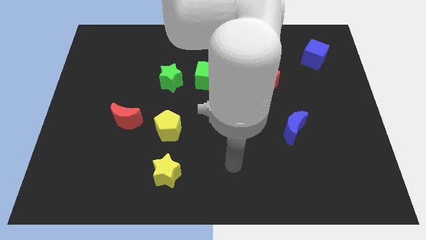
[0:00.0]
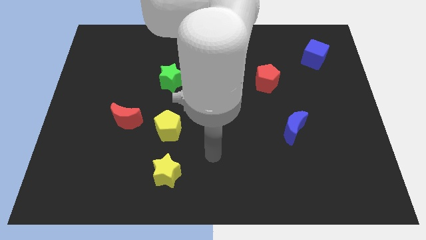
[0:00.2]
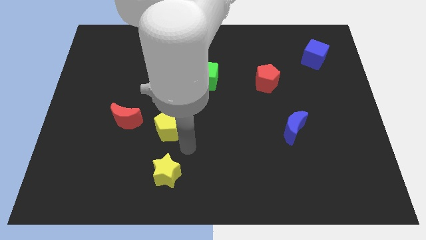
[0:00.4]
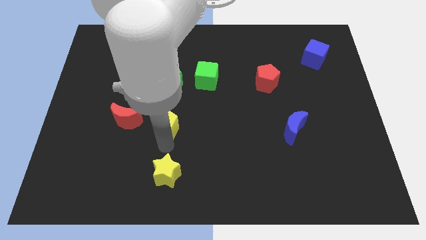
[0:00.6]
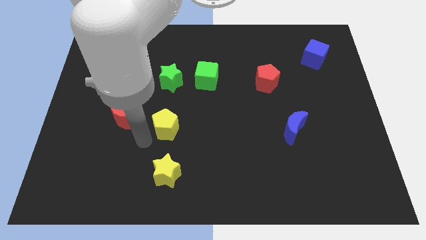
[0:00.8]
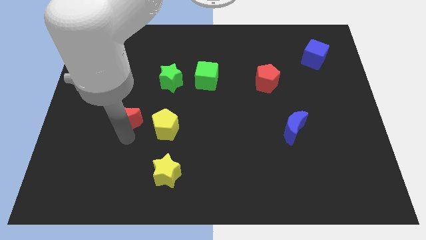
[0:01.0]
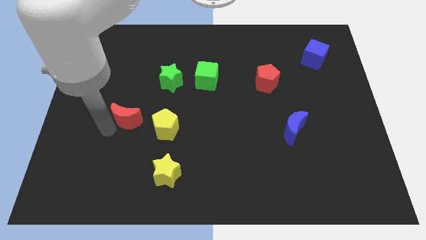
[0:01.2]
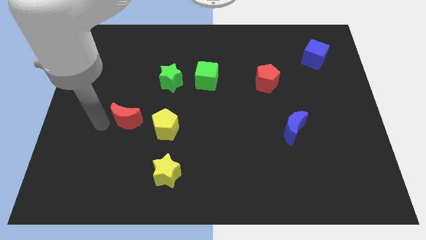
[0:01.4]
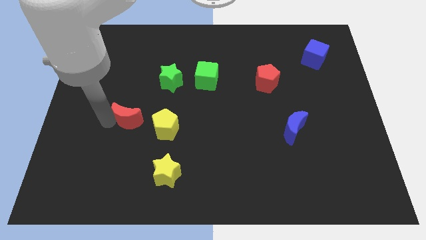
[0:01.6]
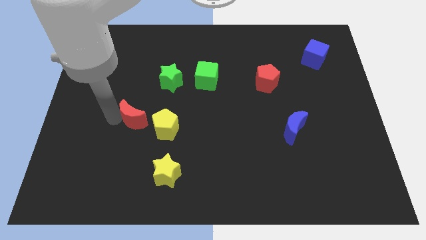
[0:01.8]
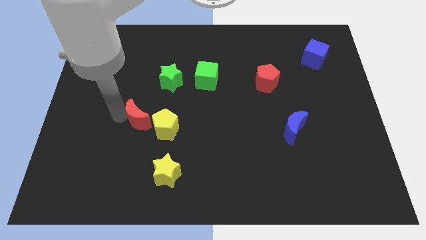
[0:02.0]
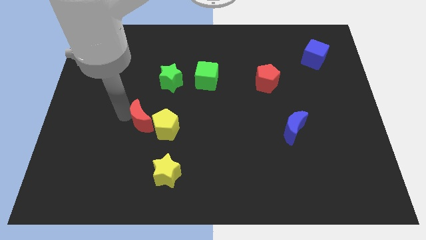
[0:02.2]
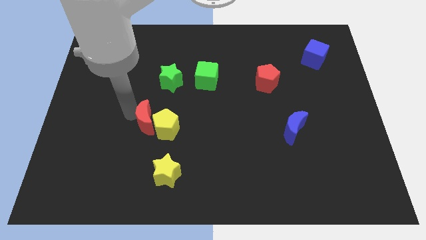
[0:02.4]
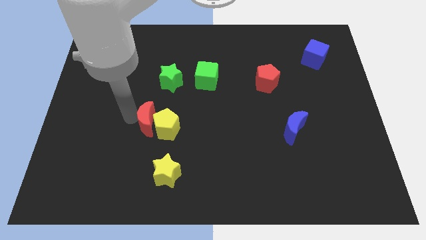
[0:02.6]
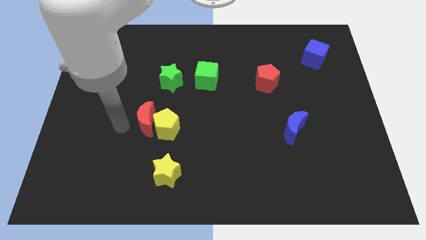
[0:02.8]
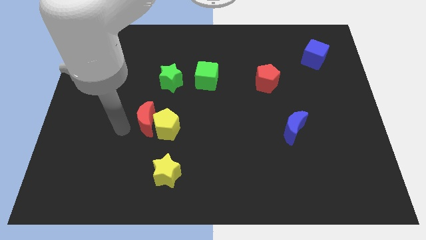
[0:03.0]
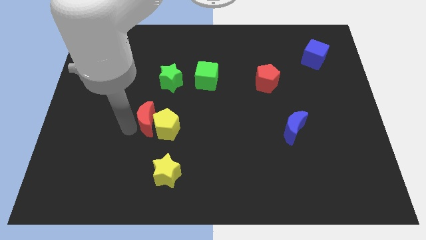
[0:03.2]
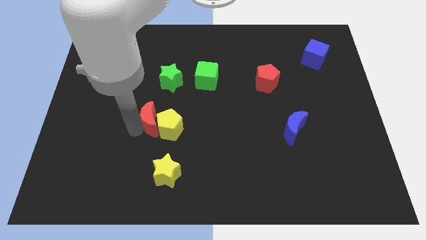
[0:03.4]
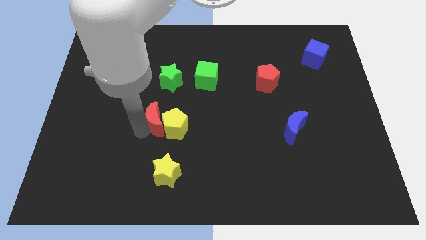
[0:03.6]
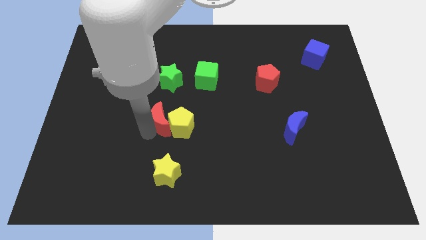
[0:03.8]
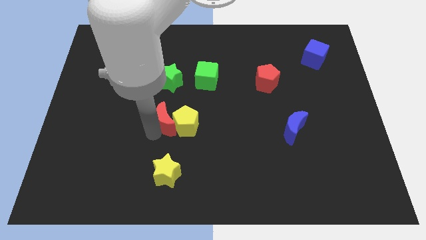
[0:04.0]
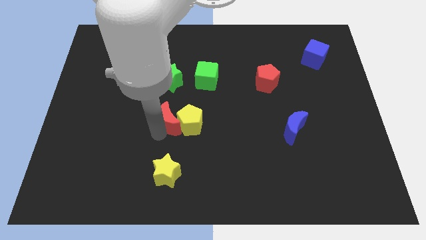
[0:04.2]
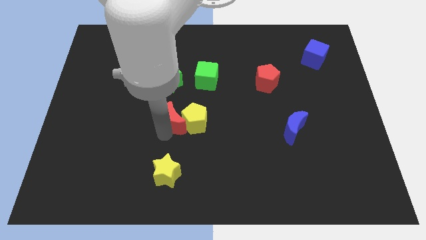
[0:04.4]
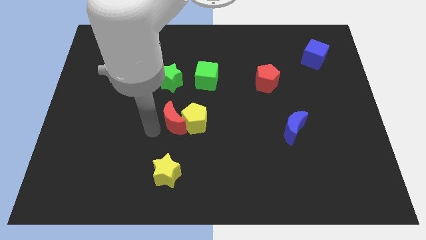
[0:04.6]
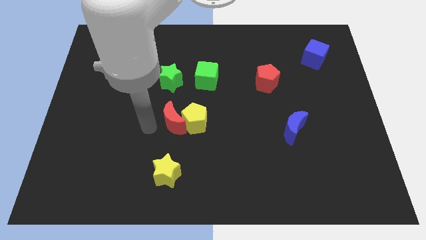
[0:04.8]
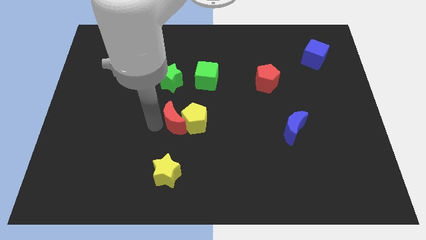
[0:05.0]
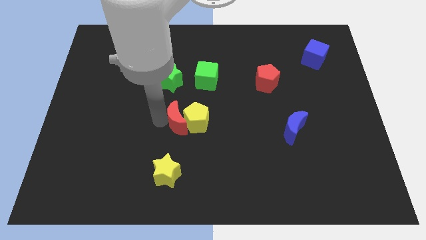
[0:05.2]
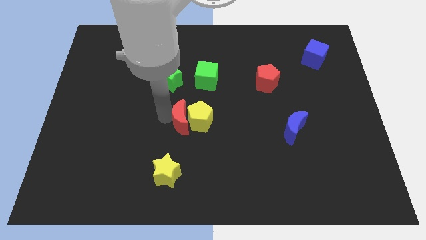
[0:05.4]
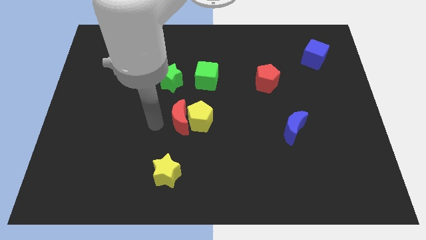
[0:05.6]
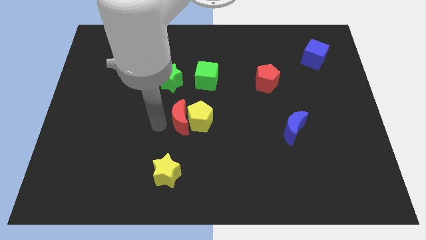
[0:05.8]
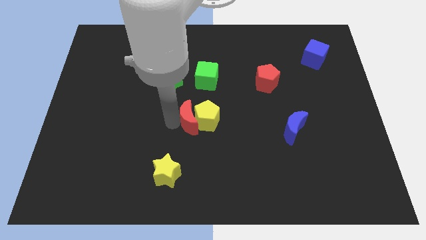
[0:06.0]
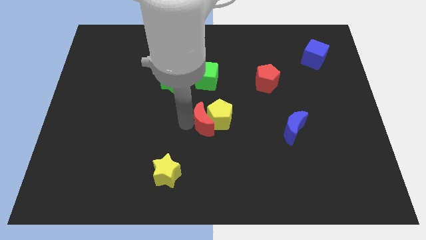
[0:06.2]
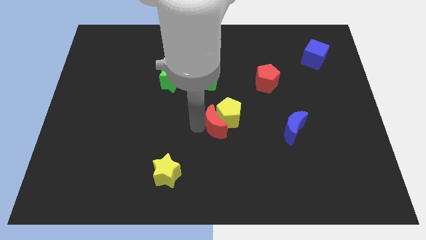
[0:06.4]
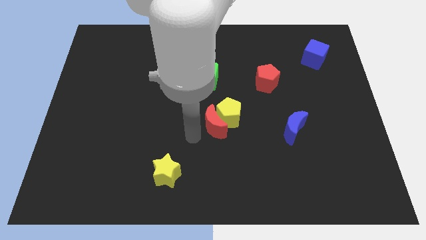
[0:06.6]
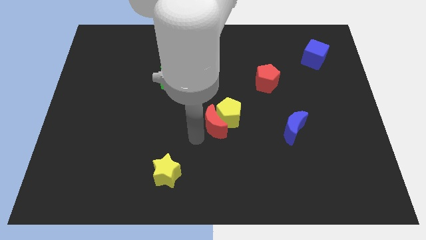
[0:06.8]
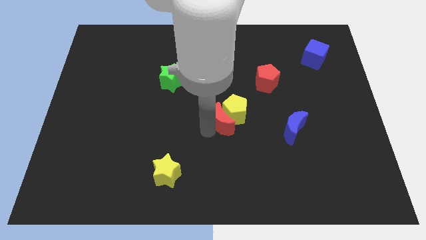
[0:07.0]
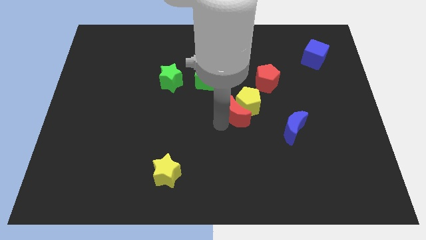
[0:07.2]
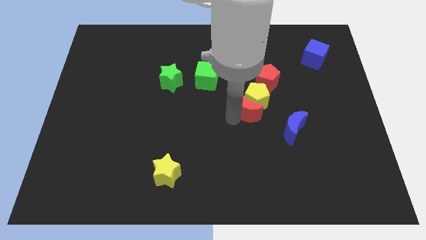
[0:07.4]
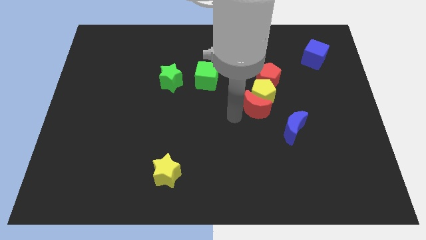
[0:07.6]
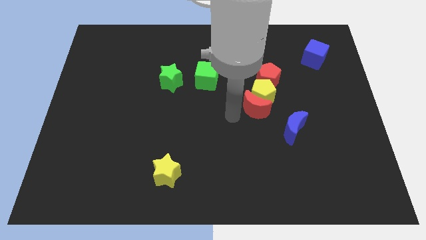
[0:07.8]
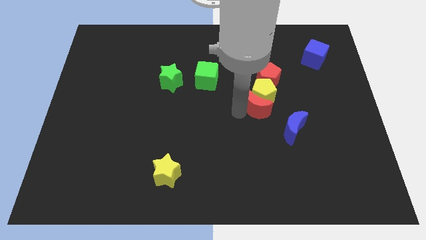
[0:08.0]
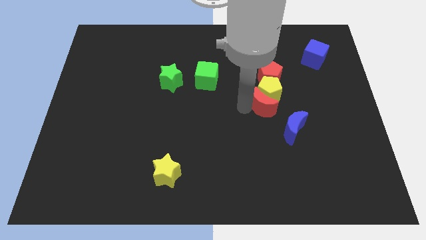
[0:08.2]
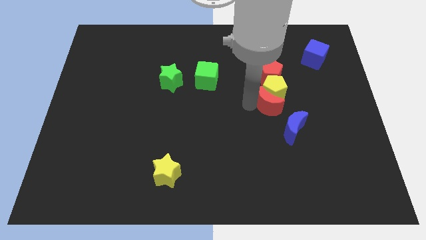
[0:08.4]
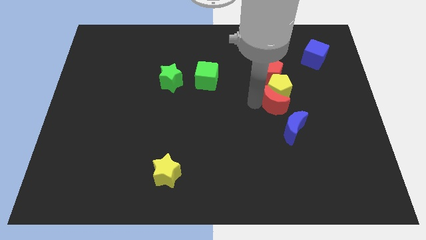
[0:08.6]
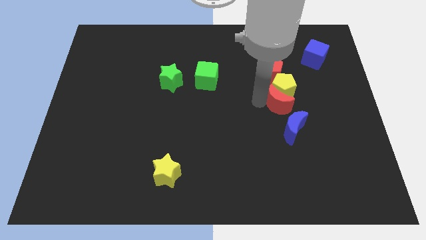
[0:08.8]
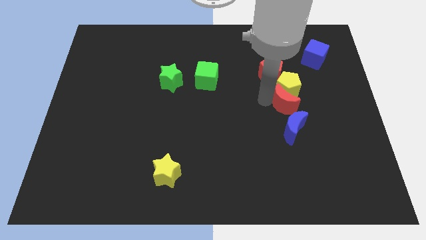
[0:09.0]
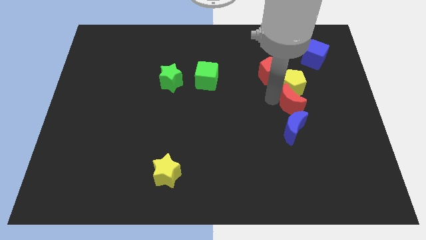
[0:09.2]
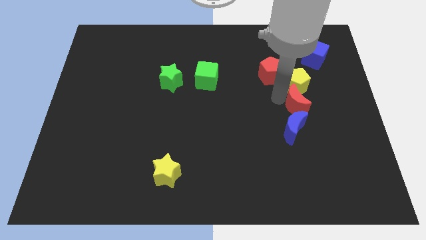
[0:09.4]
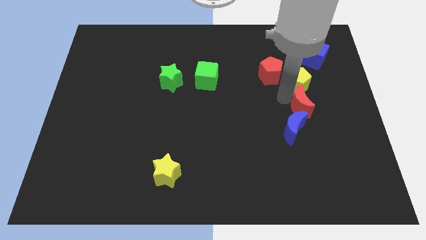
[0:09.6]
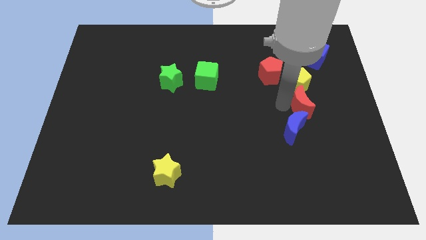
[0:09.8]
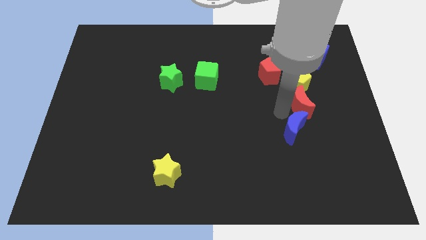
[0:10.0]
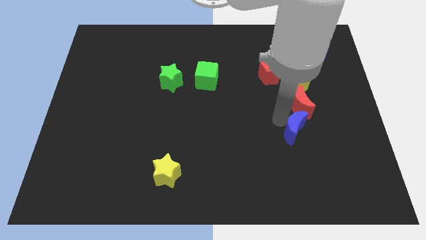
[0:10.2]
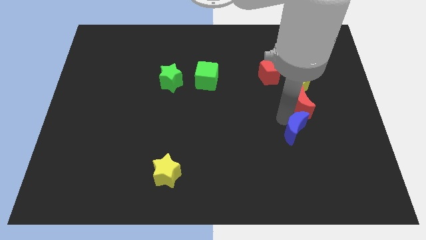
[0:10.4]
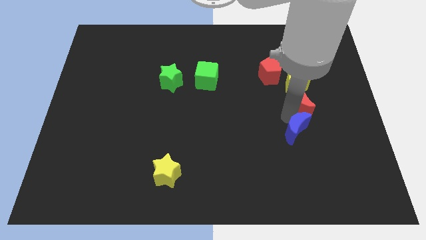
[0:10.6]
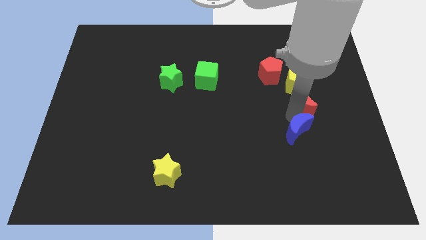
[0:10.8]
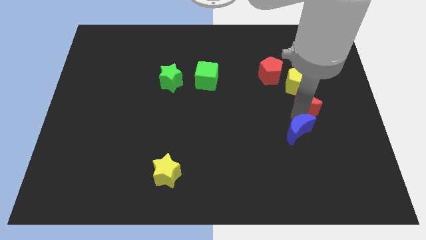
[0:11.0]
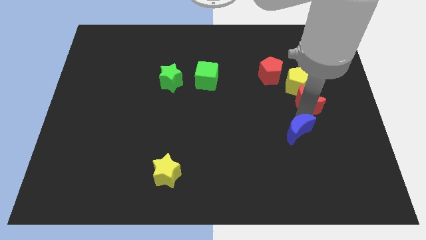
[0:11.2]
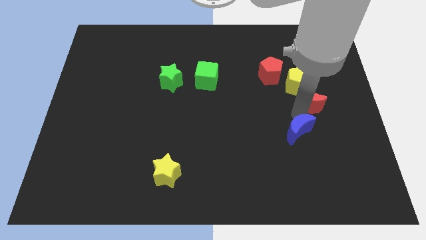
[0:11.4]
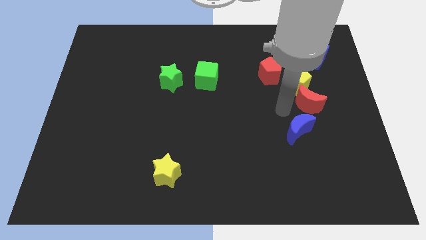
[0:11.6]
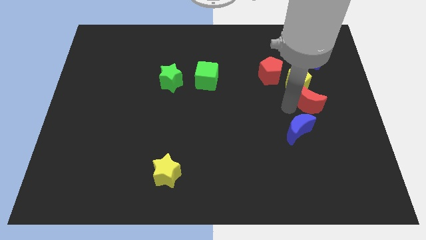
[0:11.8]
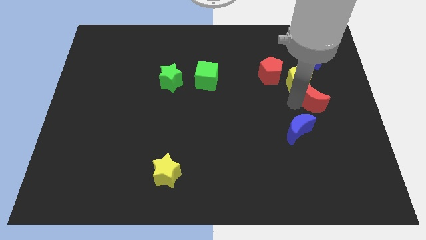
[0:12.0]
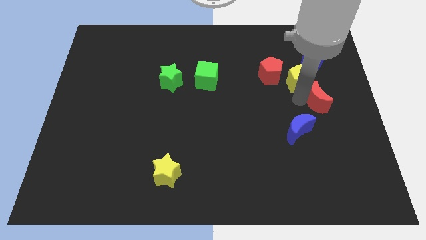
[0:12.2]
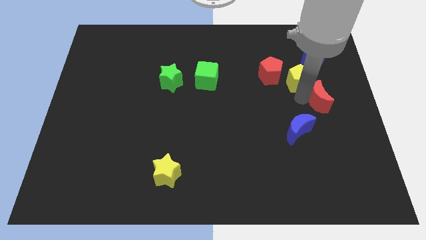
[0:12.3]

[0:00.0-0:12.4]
put the red moon to the center right
